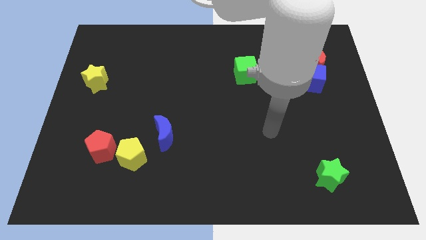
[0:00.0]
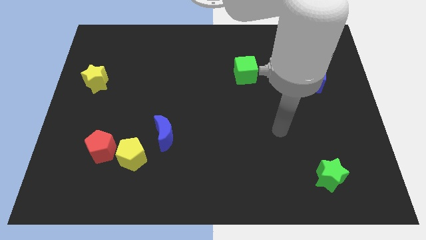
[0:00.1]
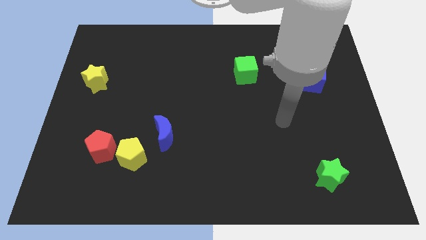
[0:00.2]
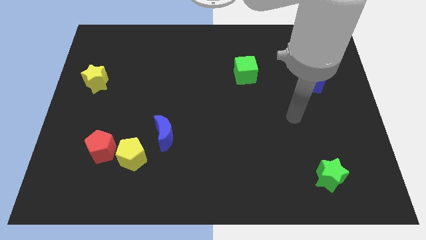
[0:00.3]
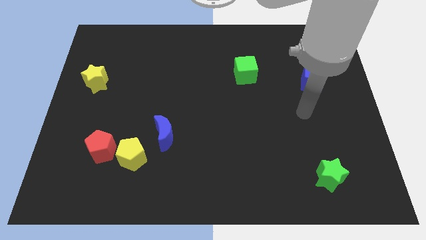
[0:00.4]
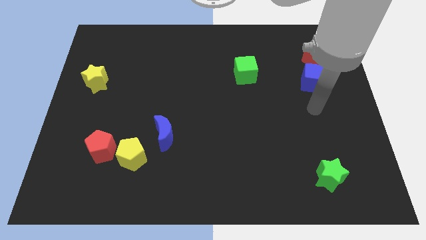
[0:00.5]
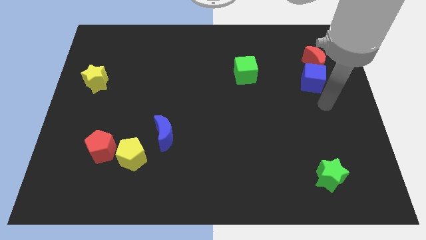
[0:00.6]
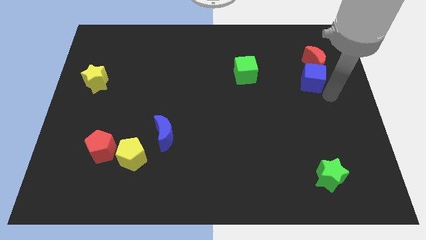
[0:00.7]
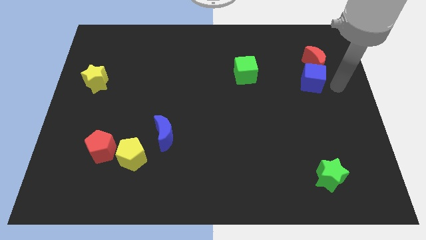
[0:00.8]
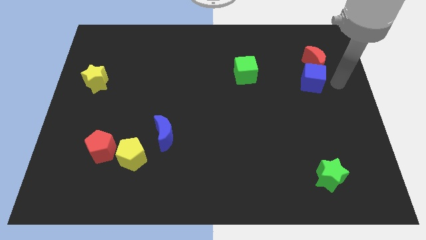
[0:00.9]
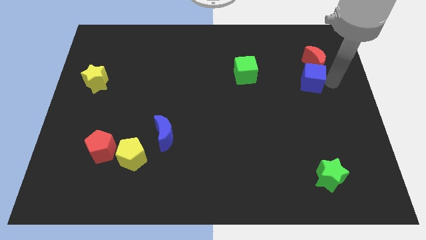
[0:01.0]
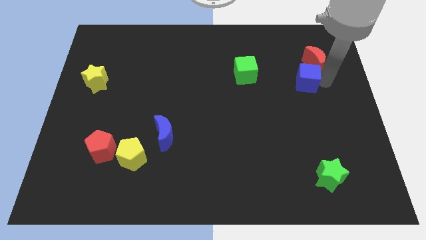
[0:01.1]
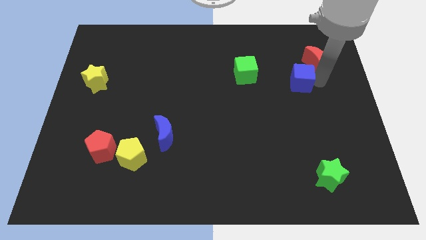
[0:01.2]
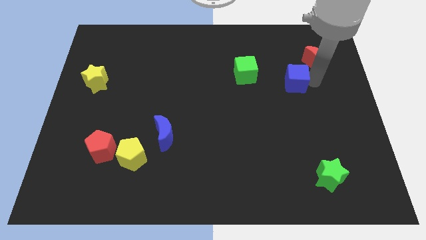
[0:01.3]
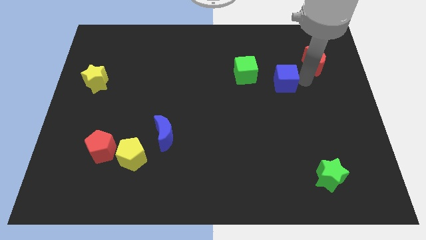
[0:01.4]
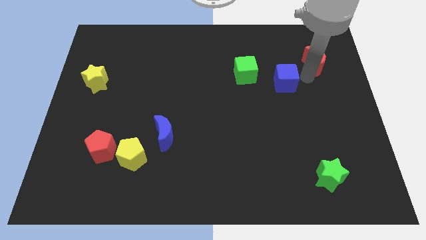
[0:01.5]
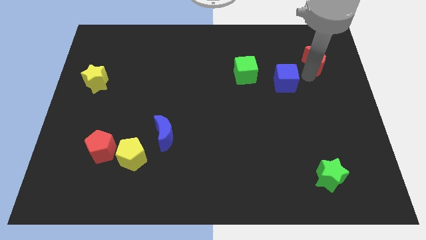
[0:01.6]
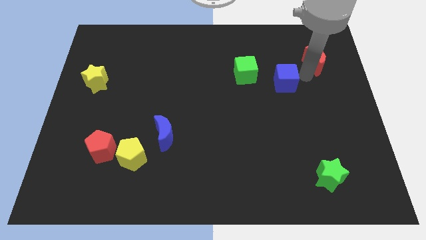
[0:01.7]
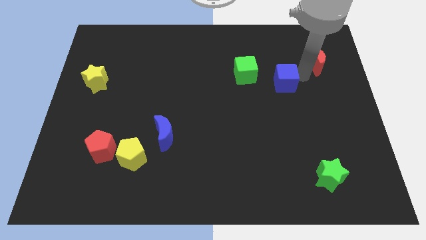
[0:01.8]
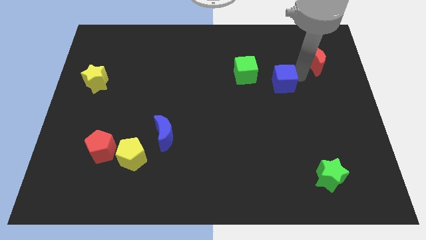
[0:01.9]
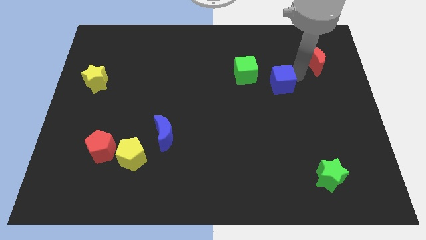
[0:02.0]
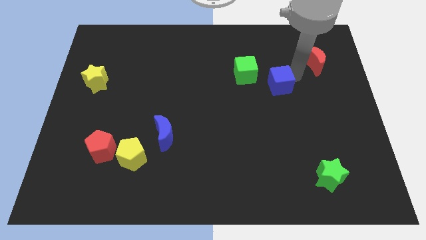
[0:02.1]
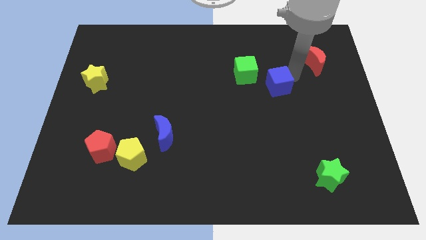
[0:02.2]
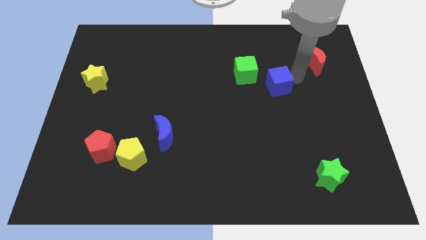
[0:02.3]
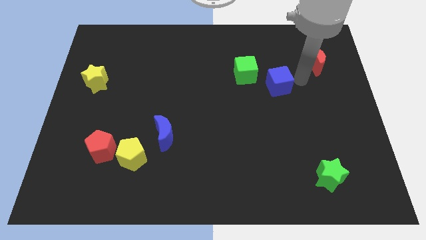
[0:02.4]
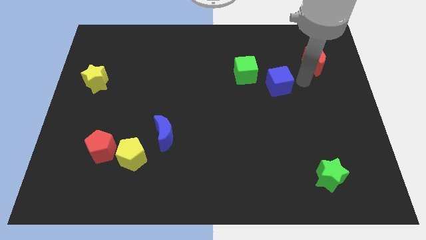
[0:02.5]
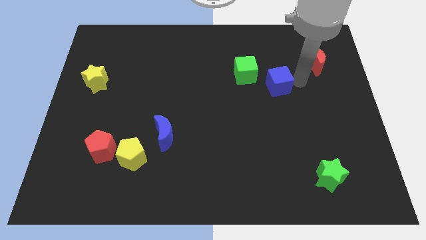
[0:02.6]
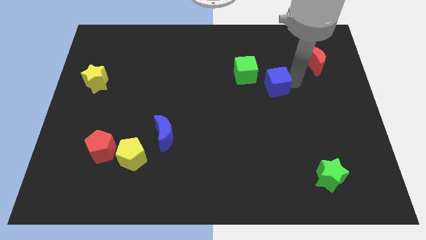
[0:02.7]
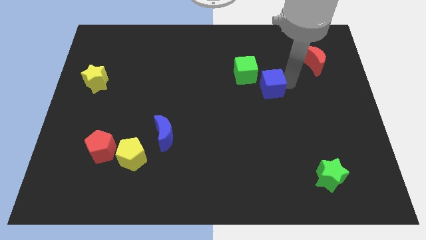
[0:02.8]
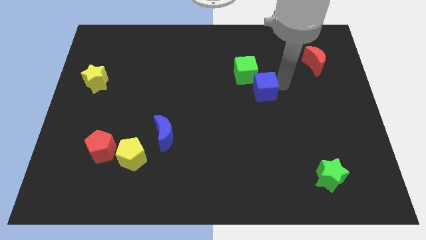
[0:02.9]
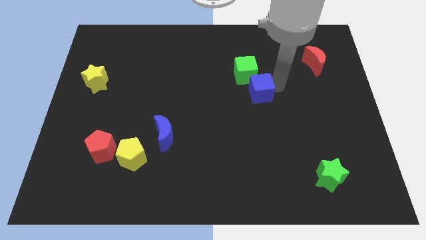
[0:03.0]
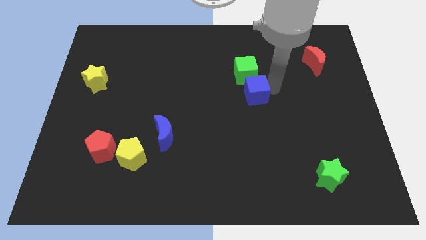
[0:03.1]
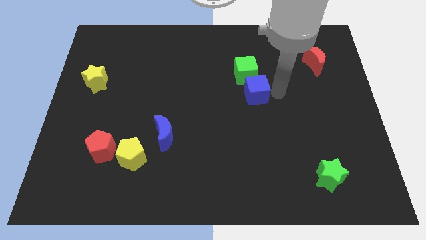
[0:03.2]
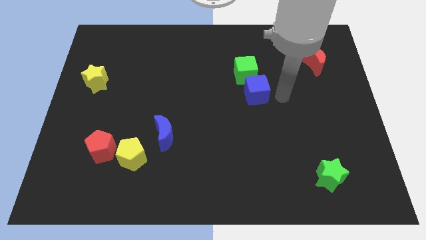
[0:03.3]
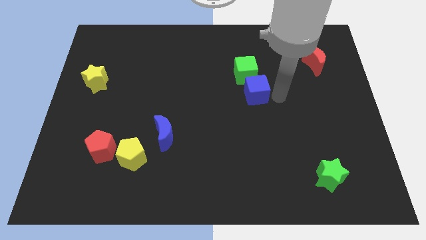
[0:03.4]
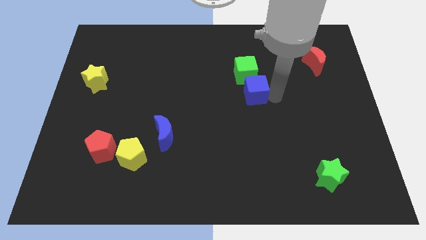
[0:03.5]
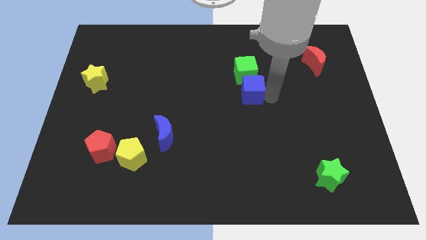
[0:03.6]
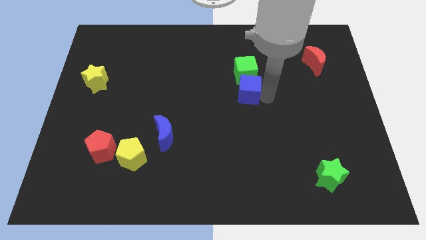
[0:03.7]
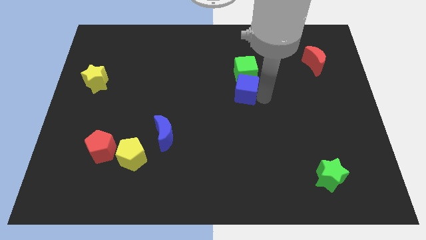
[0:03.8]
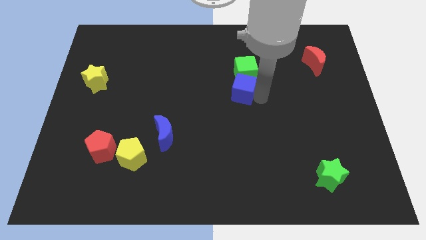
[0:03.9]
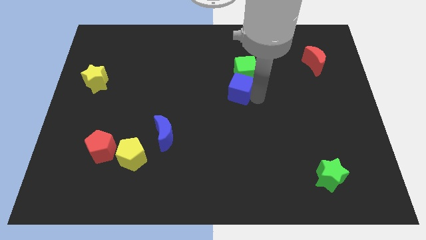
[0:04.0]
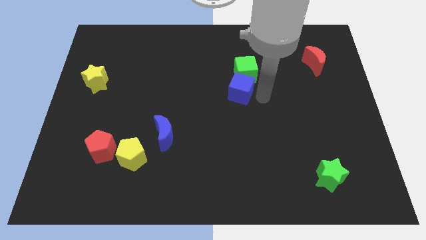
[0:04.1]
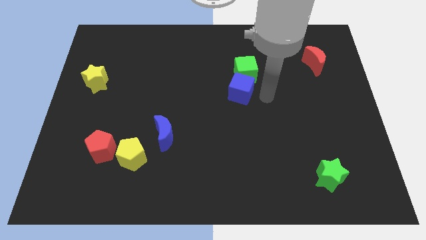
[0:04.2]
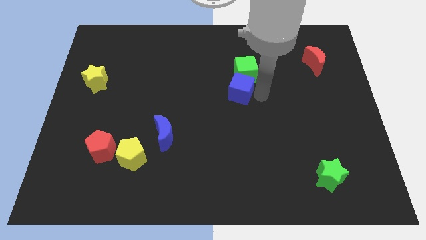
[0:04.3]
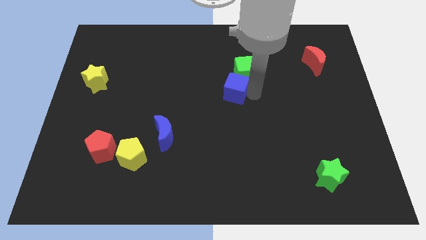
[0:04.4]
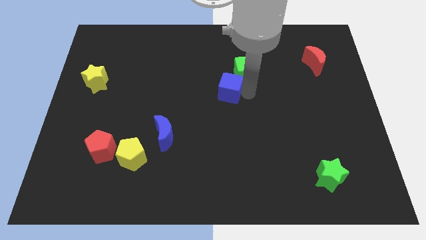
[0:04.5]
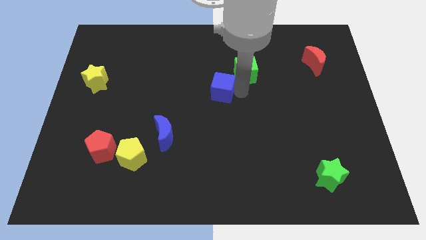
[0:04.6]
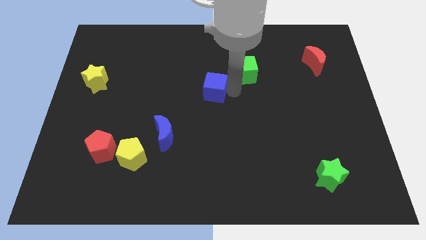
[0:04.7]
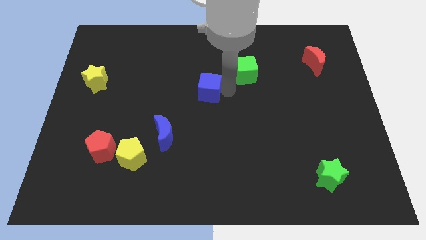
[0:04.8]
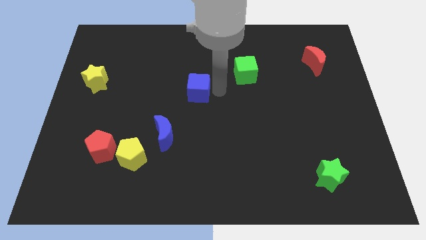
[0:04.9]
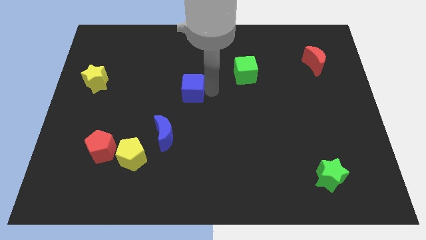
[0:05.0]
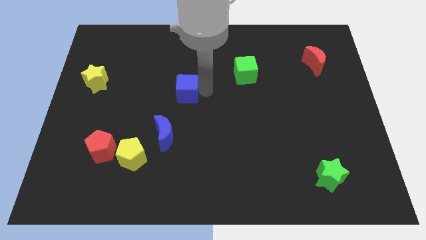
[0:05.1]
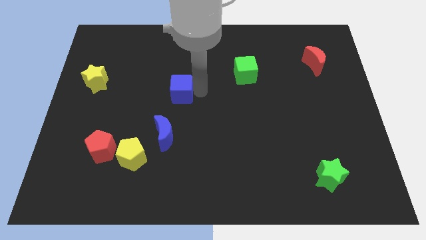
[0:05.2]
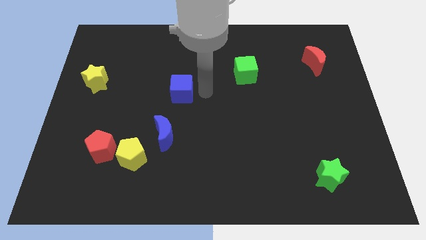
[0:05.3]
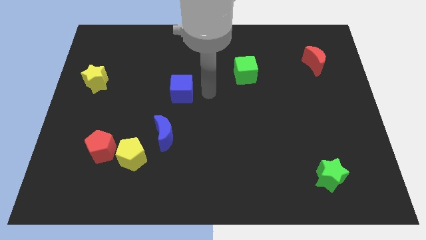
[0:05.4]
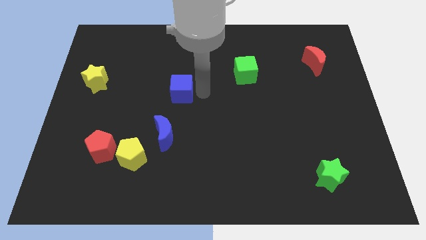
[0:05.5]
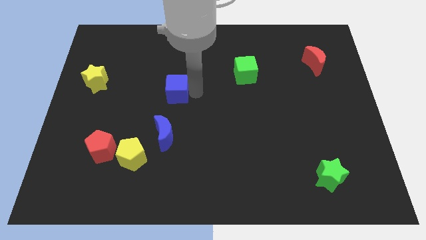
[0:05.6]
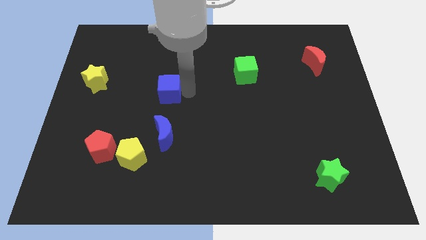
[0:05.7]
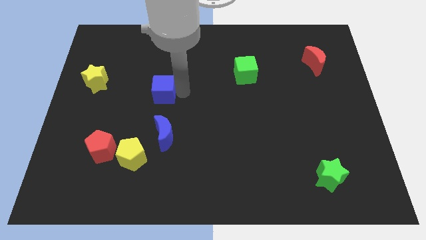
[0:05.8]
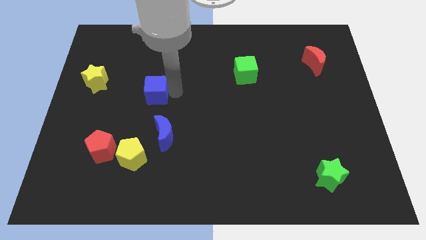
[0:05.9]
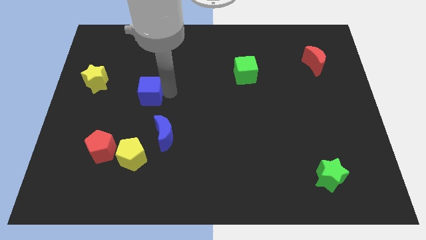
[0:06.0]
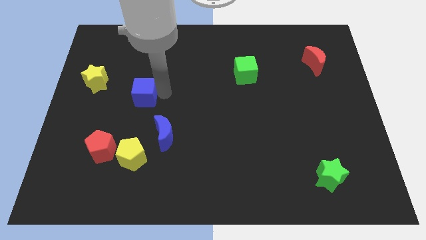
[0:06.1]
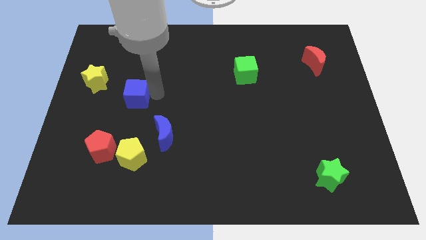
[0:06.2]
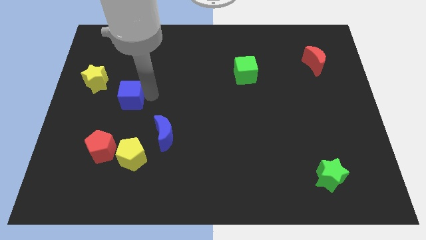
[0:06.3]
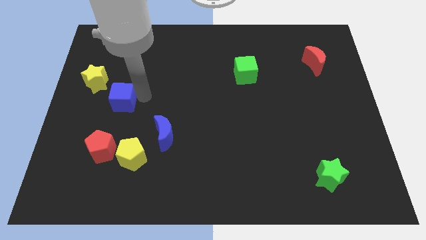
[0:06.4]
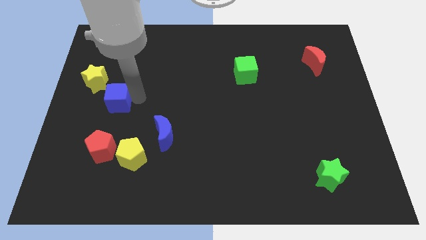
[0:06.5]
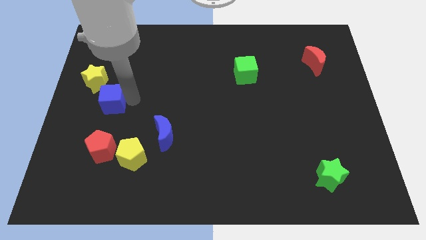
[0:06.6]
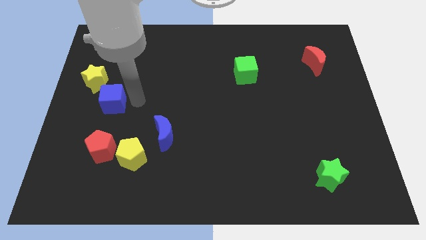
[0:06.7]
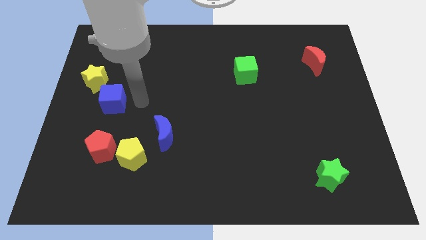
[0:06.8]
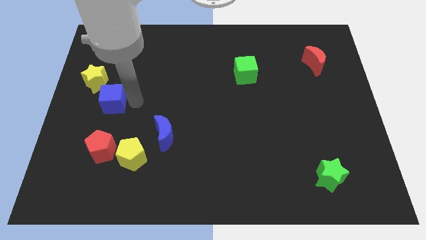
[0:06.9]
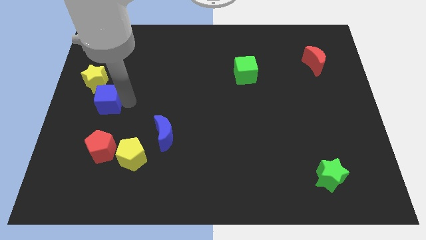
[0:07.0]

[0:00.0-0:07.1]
slide the blue cube to the center left

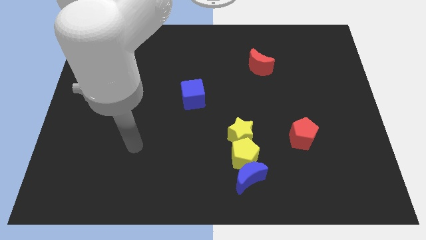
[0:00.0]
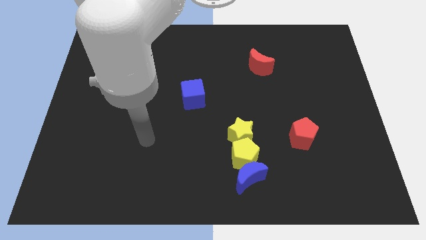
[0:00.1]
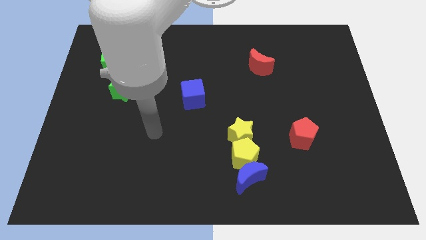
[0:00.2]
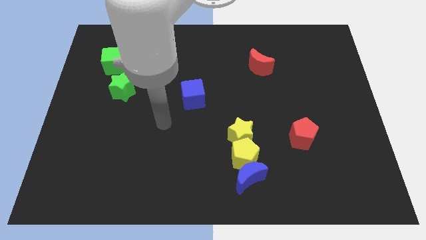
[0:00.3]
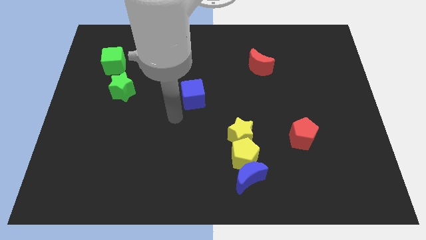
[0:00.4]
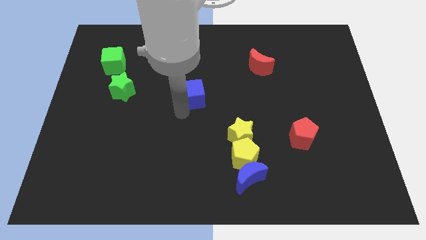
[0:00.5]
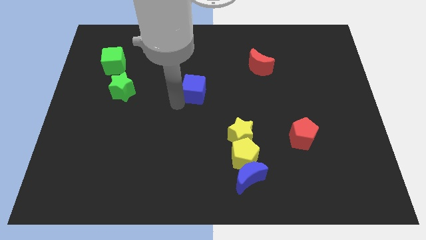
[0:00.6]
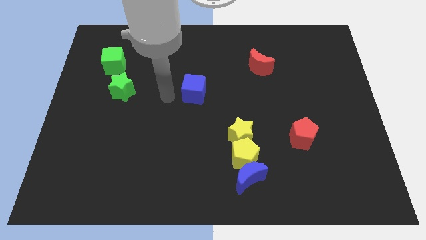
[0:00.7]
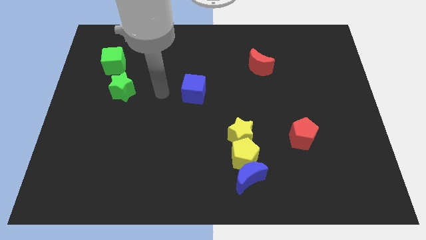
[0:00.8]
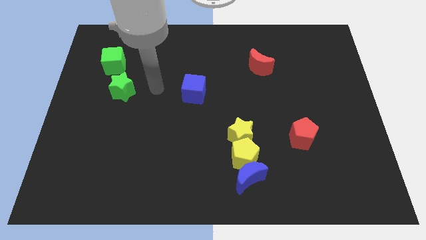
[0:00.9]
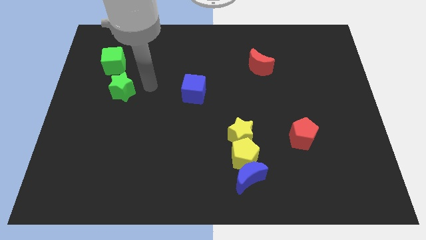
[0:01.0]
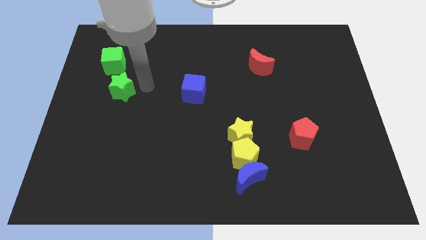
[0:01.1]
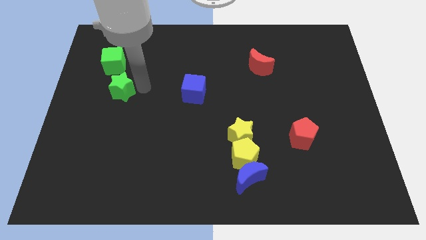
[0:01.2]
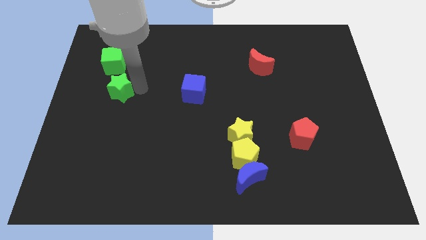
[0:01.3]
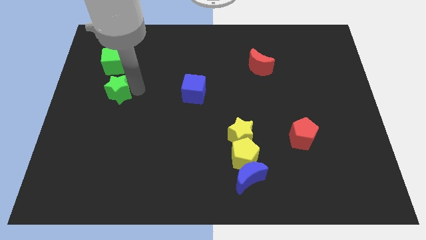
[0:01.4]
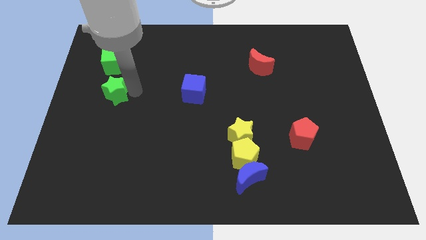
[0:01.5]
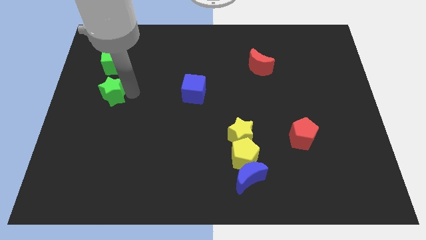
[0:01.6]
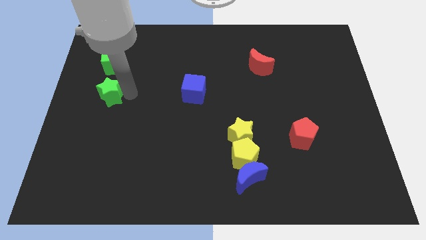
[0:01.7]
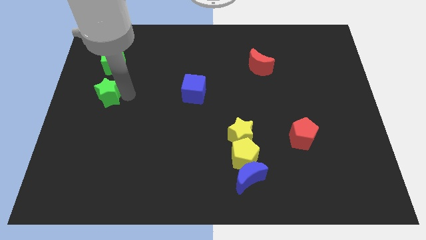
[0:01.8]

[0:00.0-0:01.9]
push the green star to the center left
